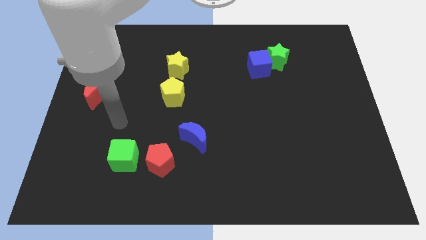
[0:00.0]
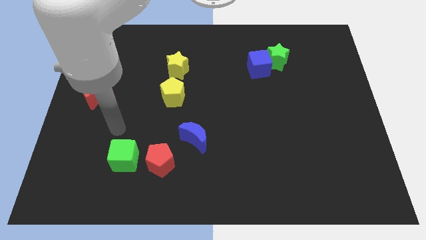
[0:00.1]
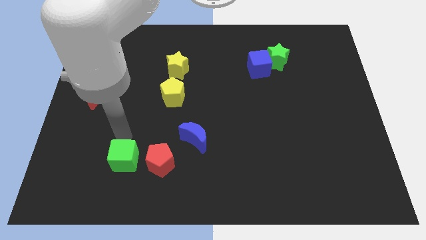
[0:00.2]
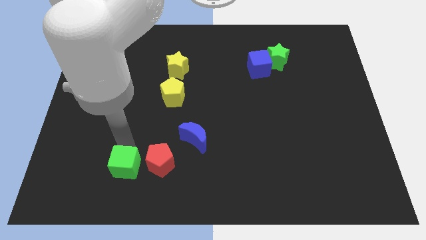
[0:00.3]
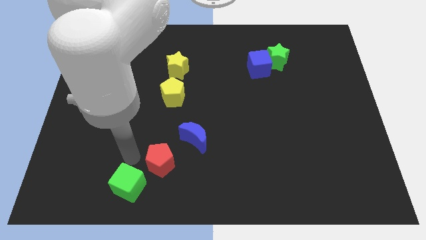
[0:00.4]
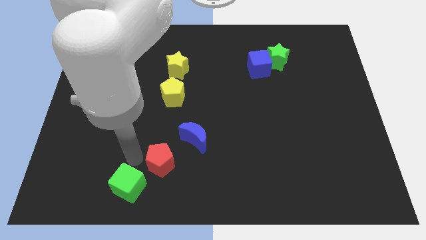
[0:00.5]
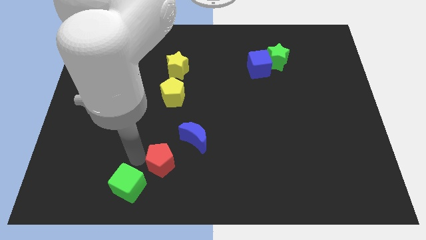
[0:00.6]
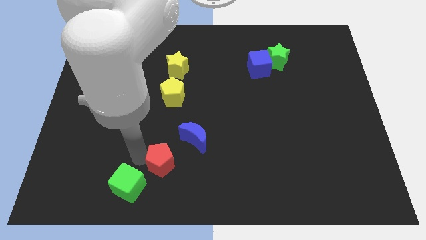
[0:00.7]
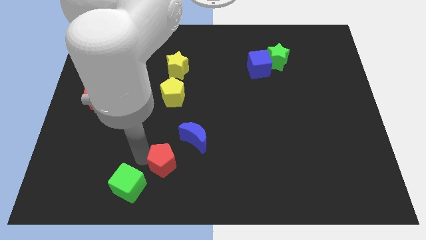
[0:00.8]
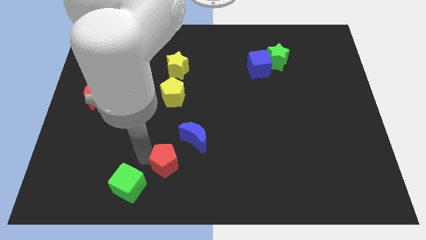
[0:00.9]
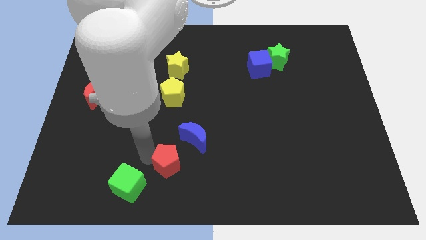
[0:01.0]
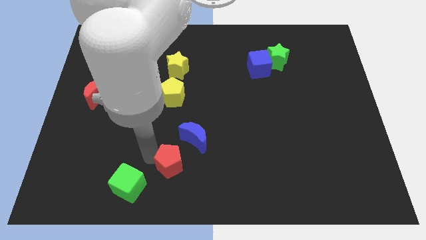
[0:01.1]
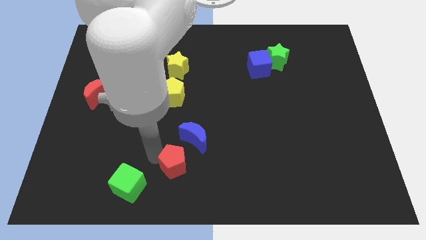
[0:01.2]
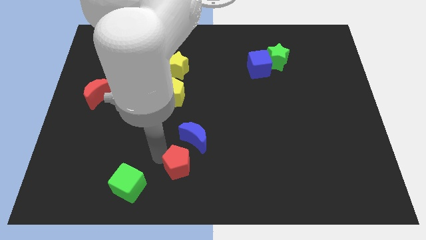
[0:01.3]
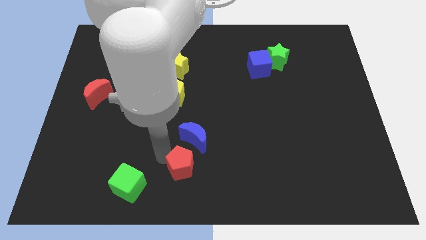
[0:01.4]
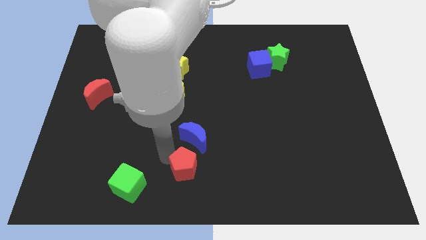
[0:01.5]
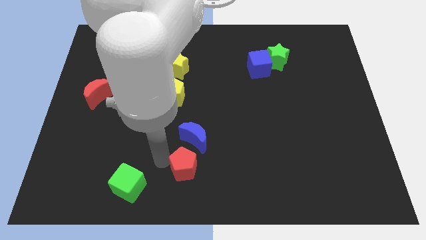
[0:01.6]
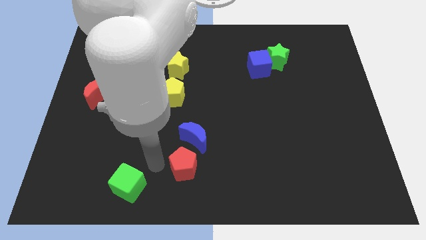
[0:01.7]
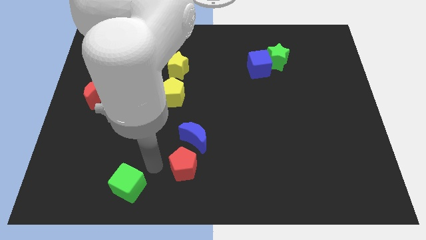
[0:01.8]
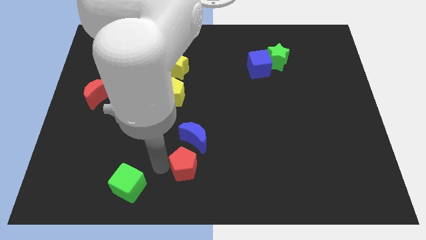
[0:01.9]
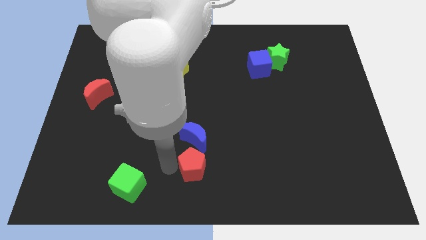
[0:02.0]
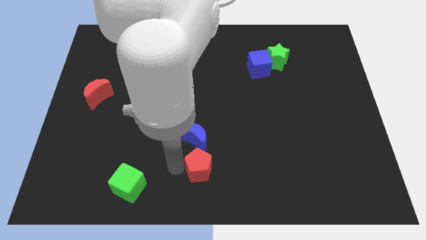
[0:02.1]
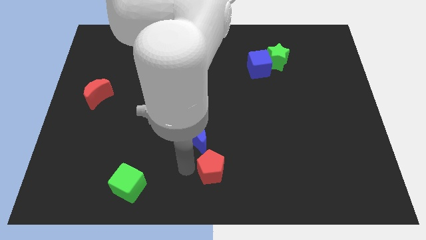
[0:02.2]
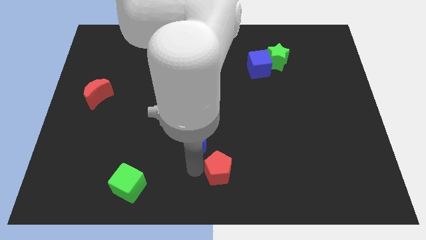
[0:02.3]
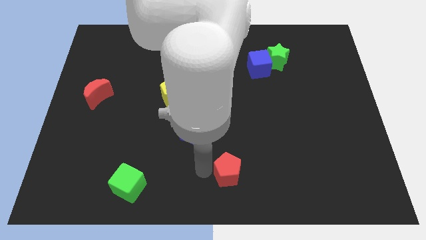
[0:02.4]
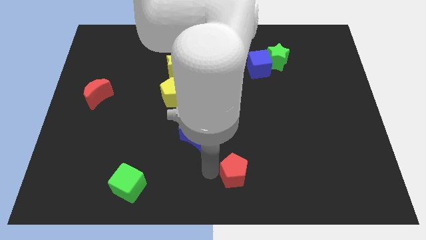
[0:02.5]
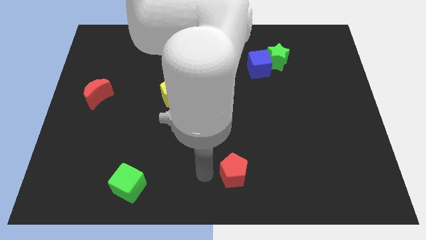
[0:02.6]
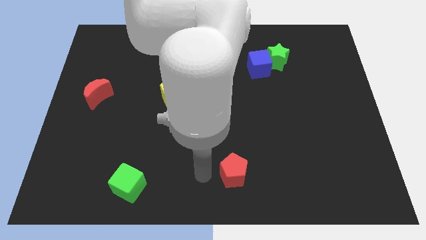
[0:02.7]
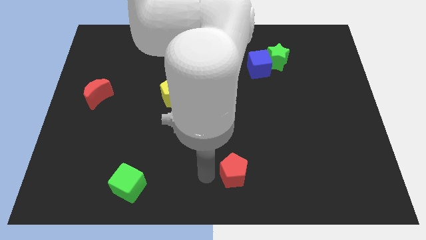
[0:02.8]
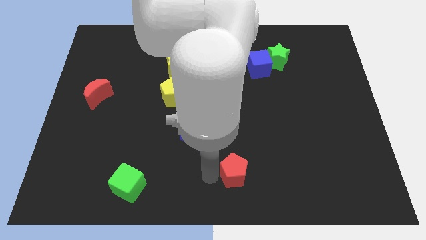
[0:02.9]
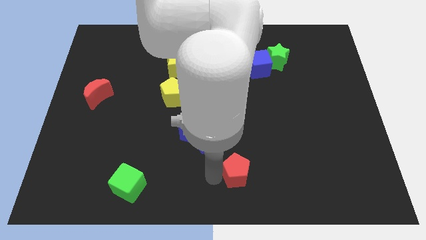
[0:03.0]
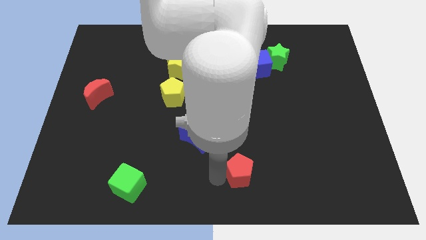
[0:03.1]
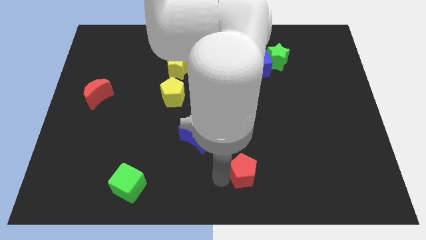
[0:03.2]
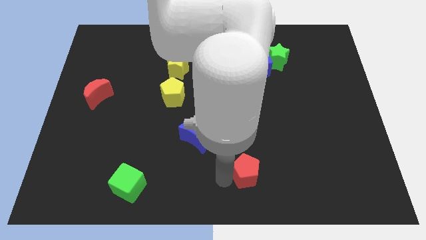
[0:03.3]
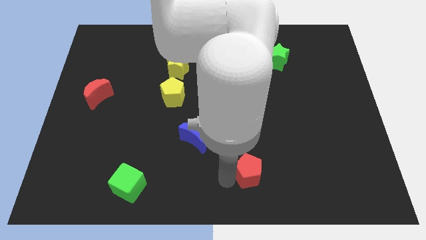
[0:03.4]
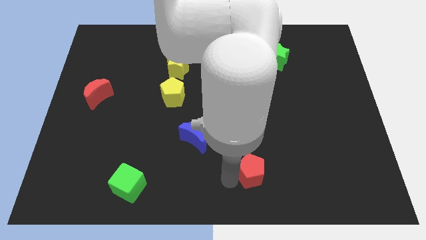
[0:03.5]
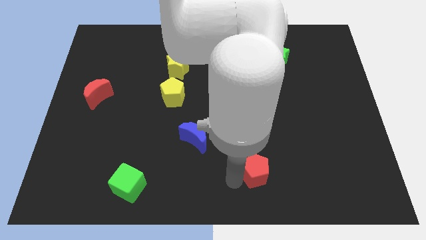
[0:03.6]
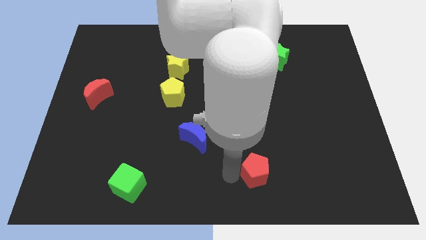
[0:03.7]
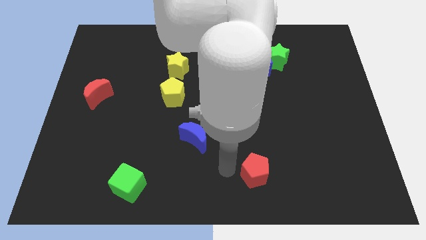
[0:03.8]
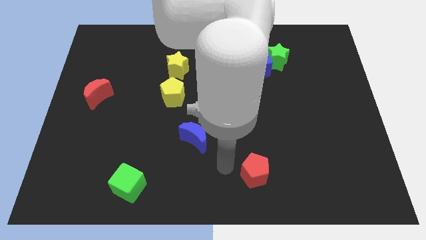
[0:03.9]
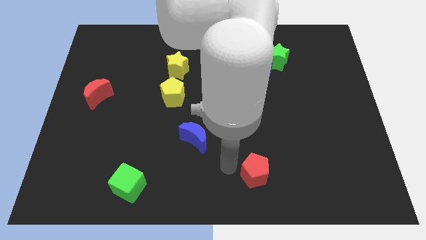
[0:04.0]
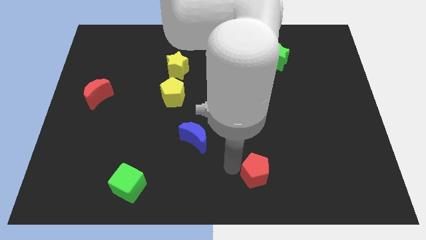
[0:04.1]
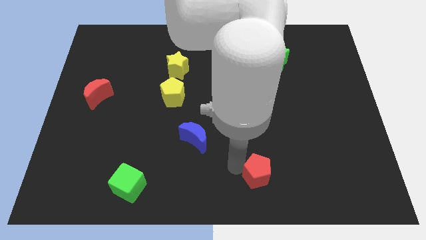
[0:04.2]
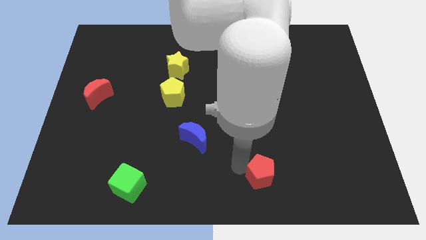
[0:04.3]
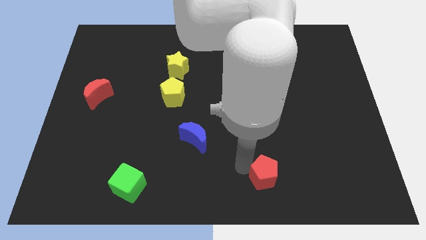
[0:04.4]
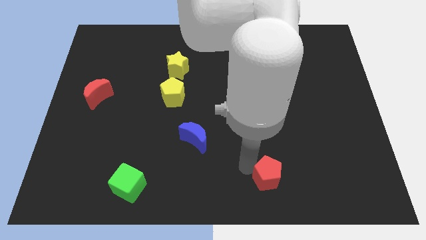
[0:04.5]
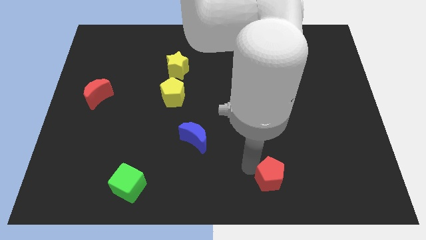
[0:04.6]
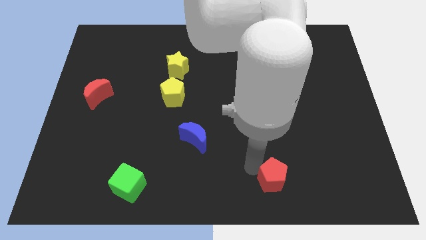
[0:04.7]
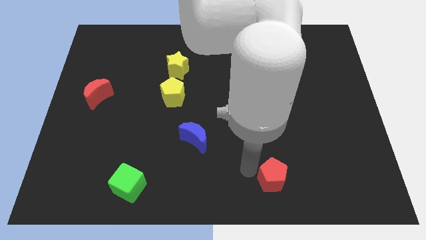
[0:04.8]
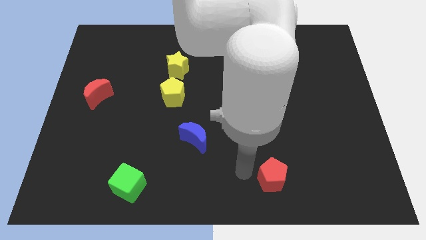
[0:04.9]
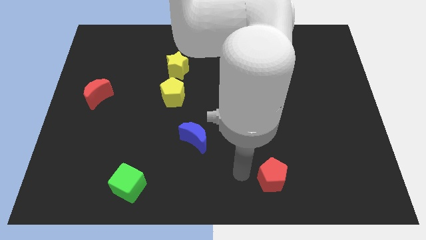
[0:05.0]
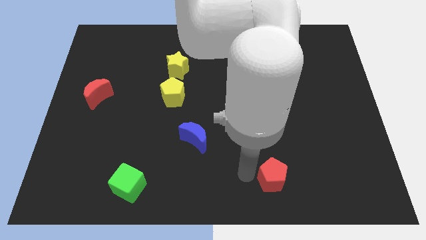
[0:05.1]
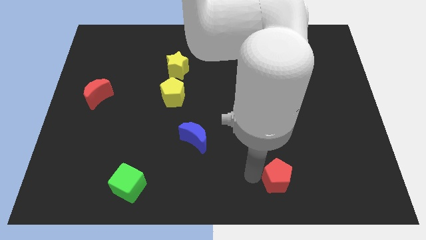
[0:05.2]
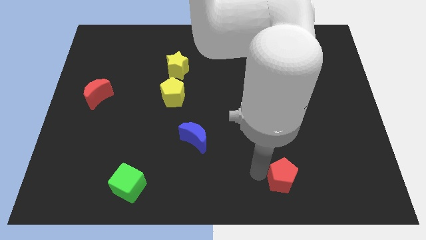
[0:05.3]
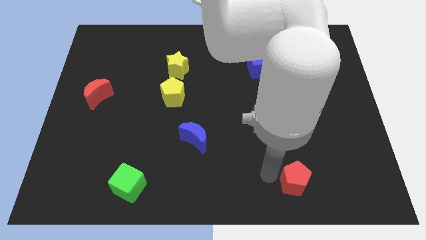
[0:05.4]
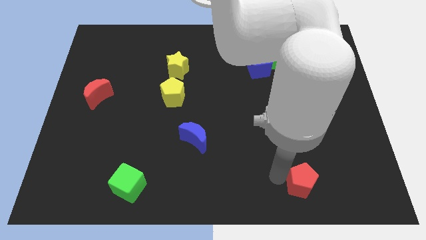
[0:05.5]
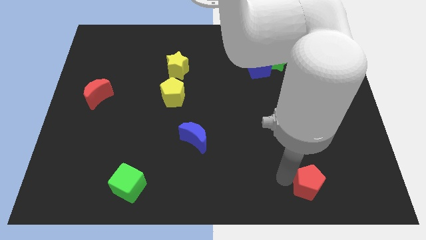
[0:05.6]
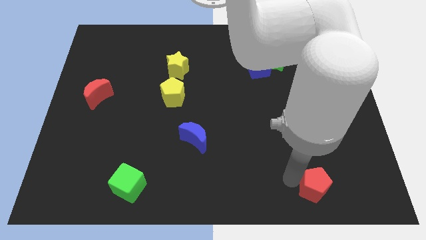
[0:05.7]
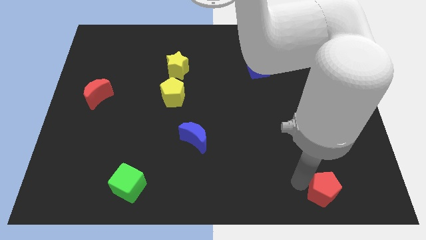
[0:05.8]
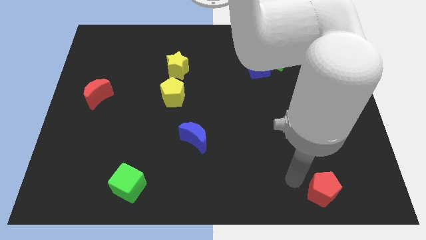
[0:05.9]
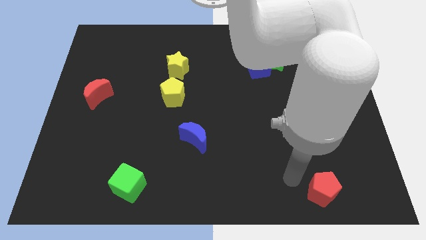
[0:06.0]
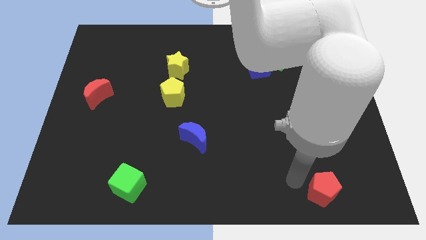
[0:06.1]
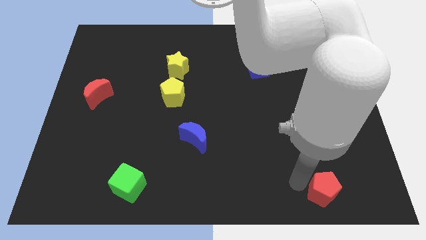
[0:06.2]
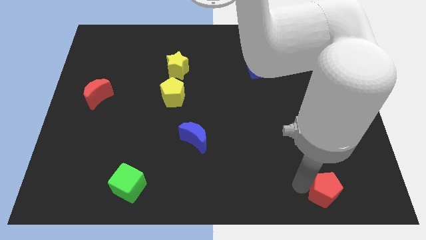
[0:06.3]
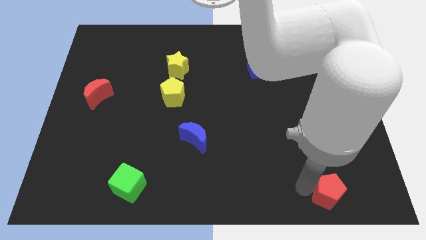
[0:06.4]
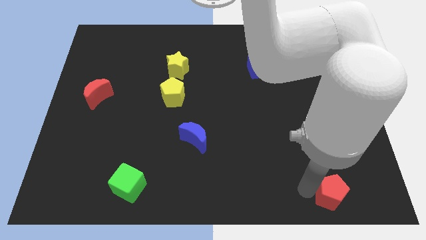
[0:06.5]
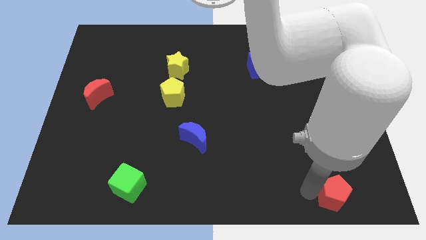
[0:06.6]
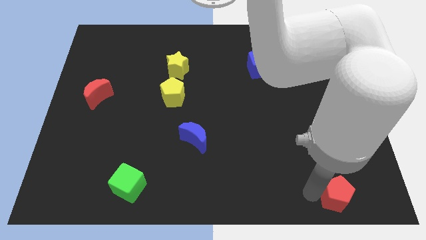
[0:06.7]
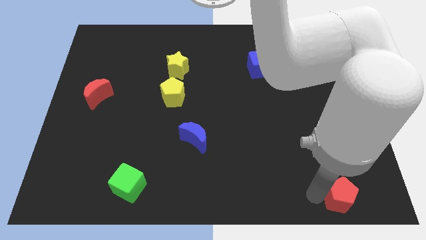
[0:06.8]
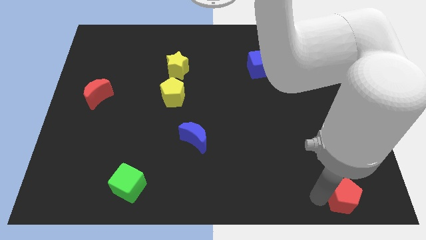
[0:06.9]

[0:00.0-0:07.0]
push the red pentagon to the lower right corner
